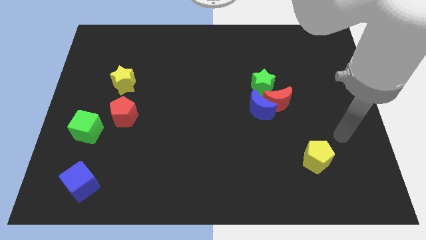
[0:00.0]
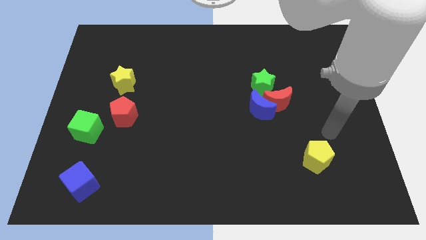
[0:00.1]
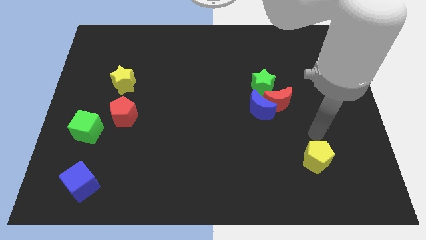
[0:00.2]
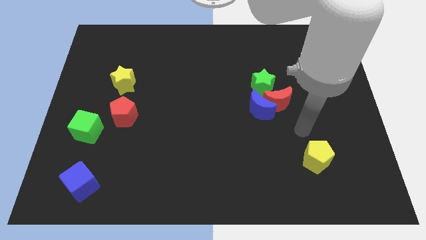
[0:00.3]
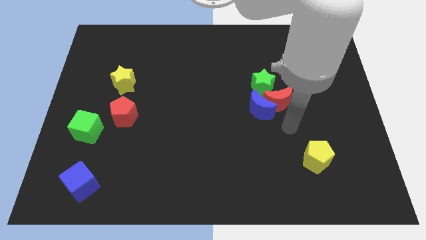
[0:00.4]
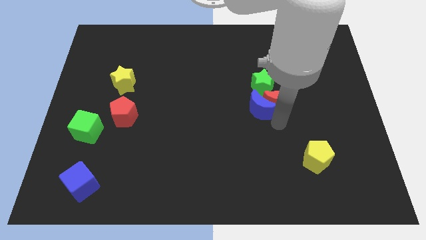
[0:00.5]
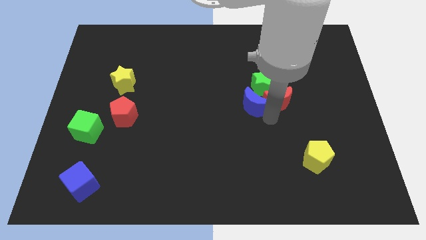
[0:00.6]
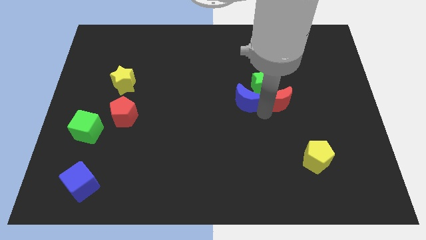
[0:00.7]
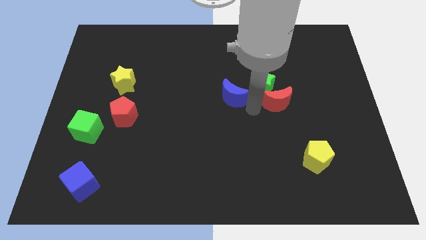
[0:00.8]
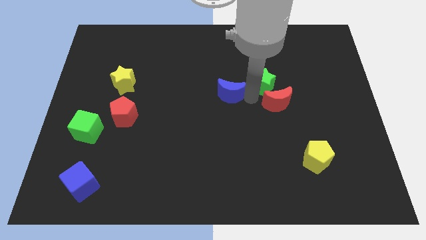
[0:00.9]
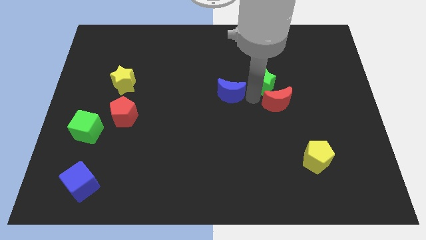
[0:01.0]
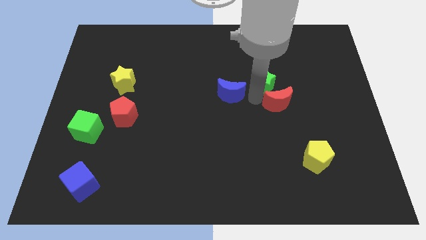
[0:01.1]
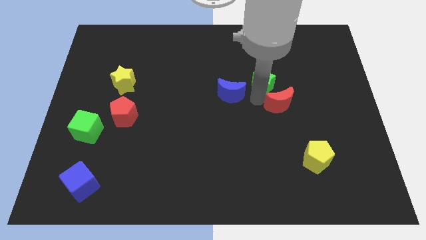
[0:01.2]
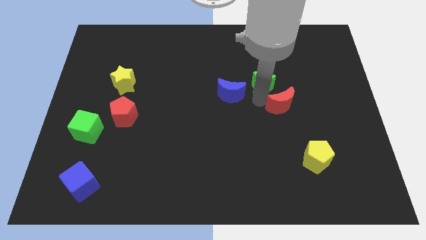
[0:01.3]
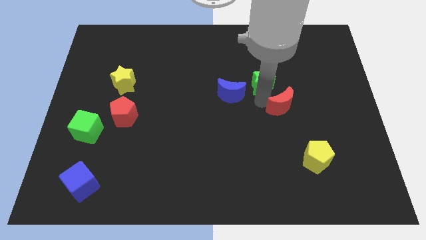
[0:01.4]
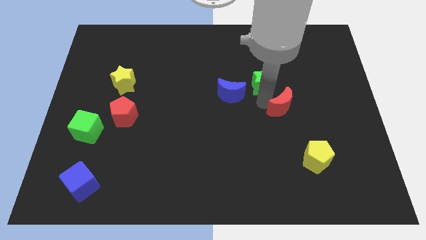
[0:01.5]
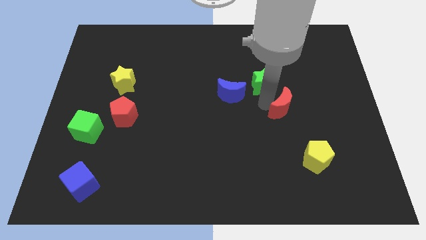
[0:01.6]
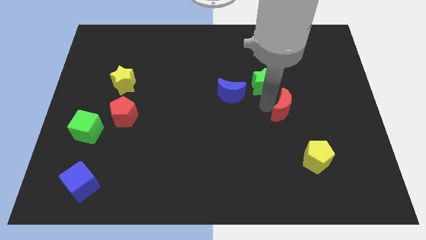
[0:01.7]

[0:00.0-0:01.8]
move the red moon away from the blue moon and green star

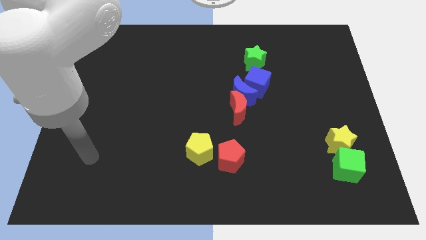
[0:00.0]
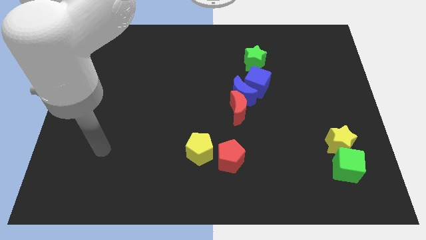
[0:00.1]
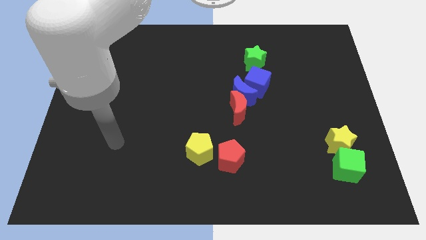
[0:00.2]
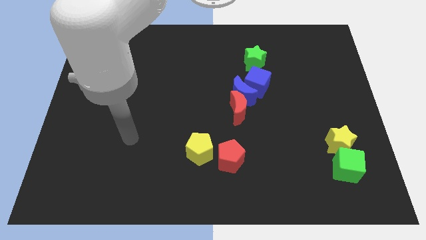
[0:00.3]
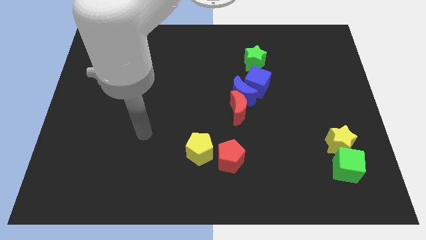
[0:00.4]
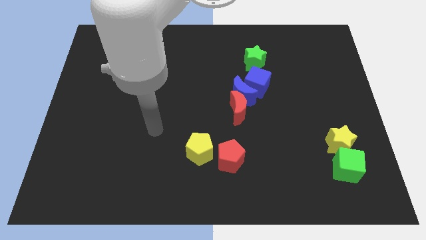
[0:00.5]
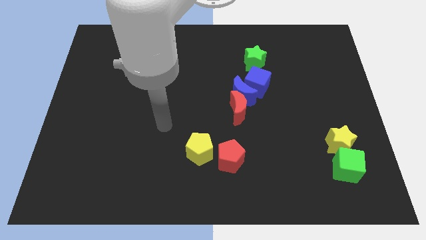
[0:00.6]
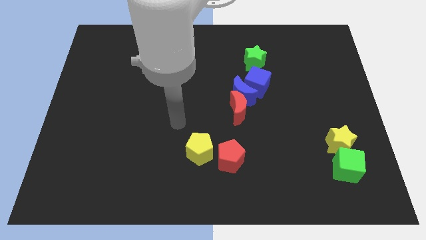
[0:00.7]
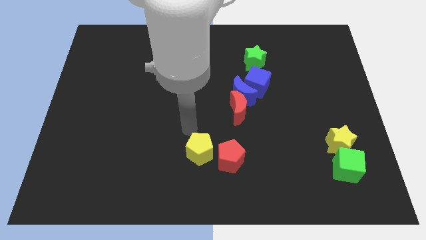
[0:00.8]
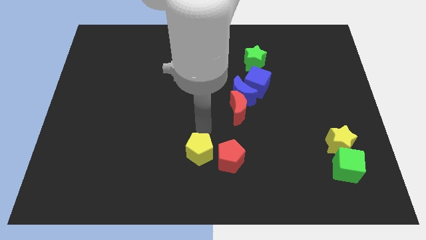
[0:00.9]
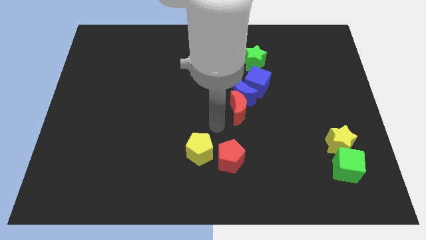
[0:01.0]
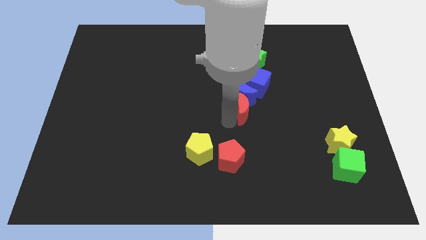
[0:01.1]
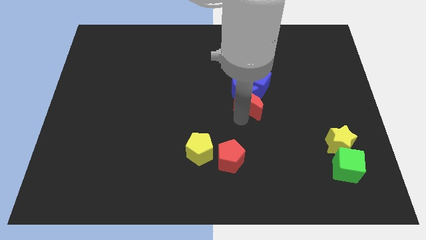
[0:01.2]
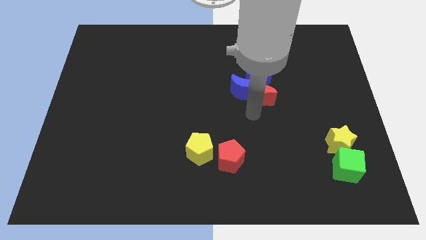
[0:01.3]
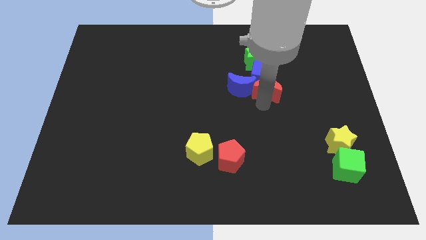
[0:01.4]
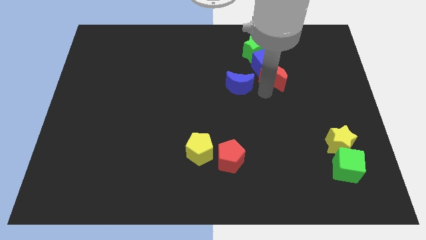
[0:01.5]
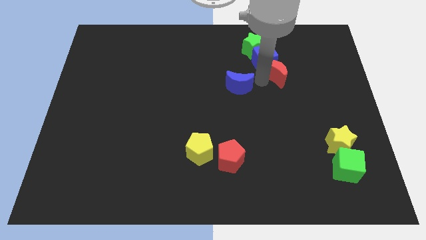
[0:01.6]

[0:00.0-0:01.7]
move the blue moon away from the red moon and blue cube

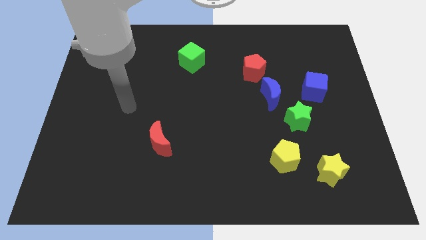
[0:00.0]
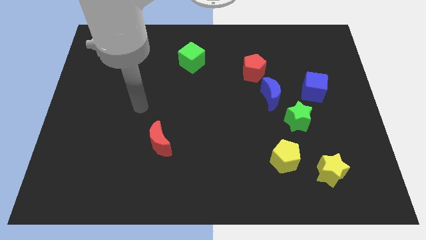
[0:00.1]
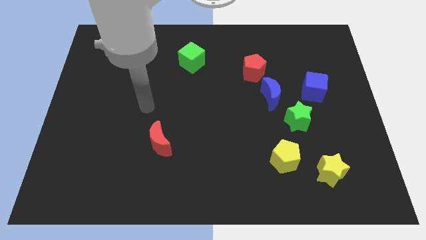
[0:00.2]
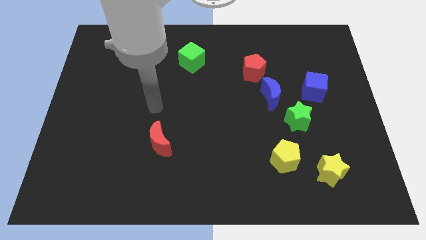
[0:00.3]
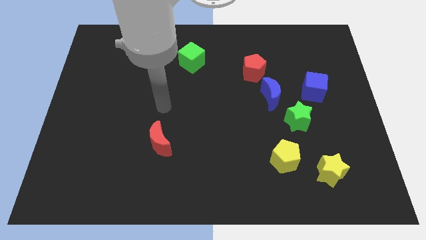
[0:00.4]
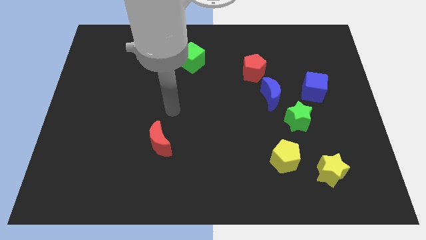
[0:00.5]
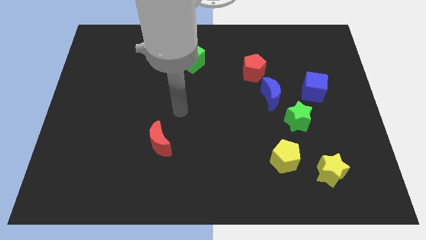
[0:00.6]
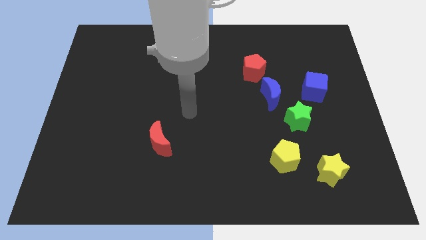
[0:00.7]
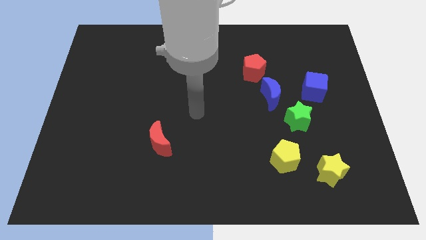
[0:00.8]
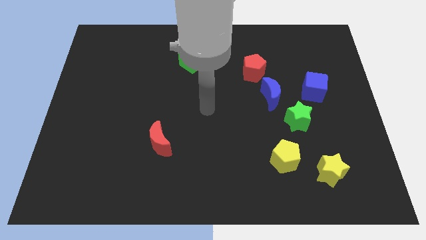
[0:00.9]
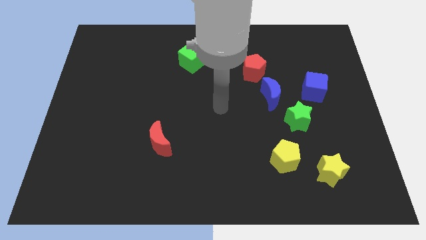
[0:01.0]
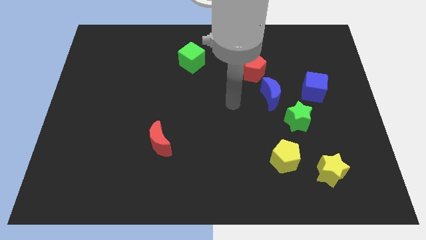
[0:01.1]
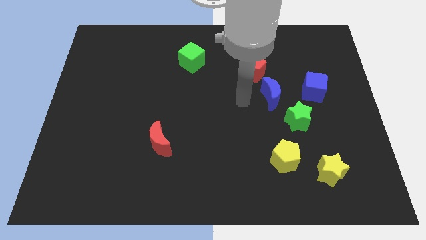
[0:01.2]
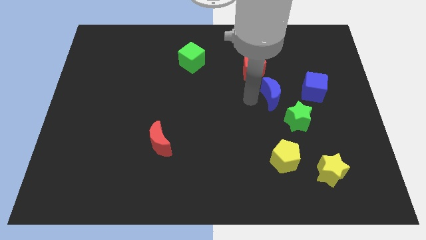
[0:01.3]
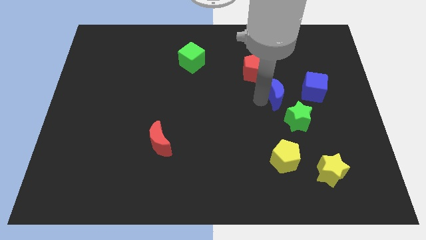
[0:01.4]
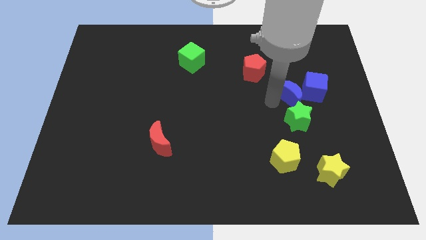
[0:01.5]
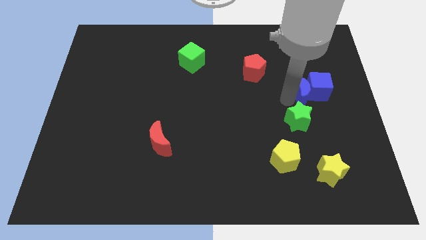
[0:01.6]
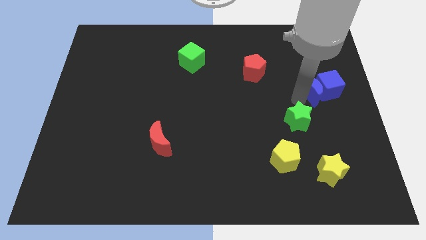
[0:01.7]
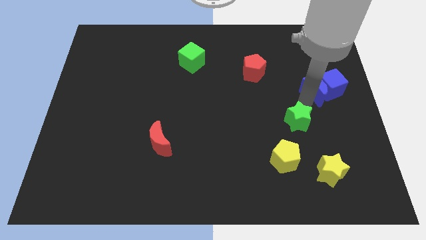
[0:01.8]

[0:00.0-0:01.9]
separate the green star from the blue moon

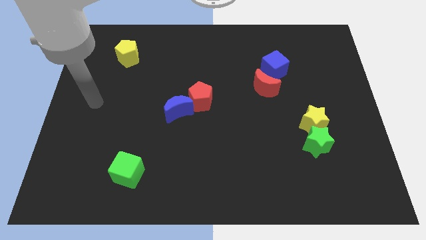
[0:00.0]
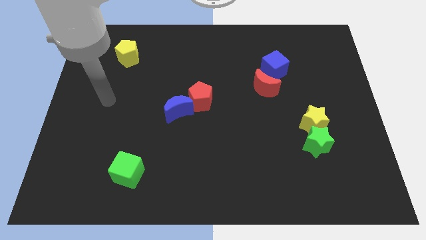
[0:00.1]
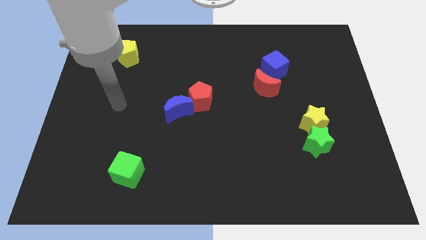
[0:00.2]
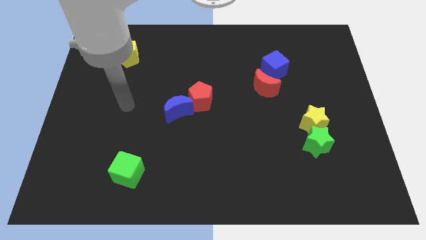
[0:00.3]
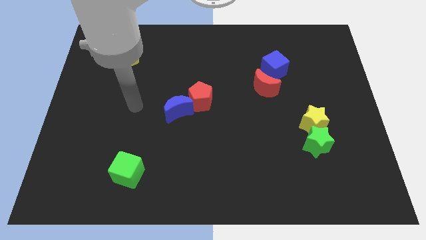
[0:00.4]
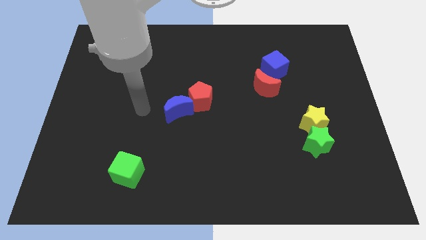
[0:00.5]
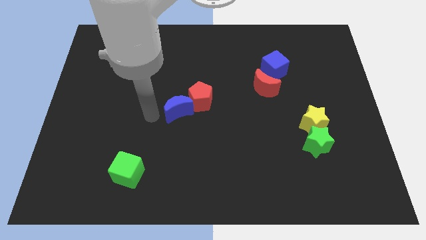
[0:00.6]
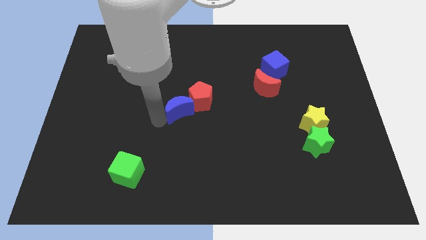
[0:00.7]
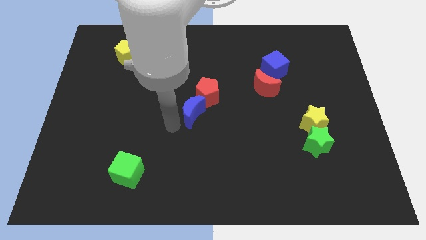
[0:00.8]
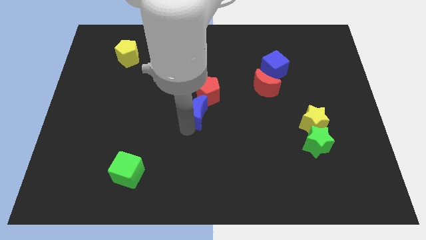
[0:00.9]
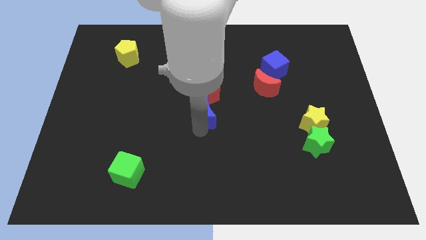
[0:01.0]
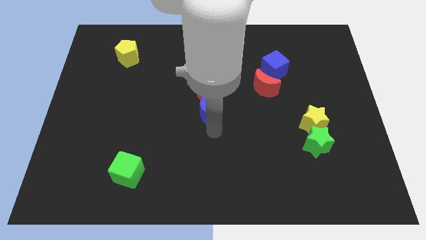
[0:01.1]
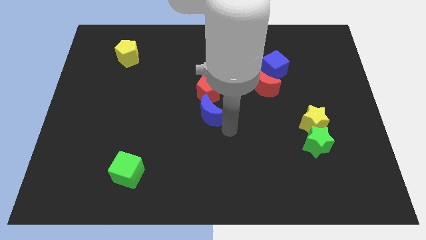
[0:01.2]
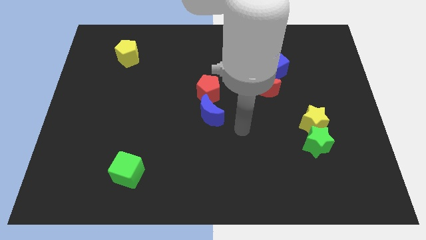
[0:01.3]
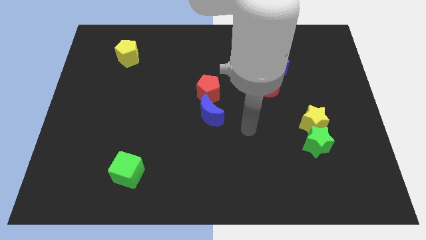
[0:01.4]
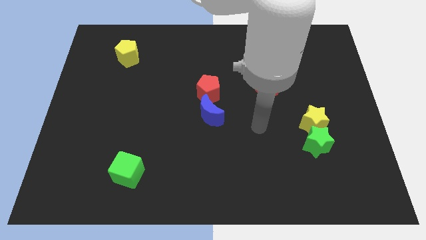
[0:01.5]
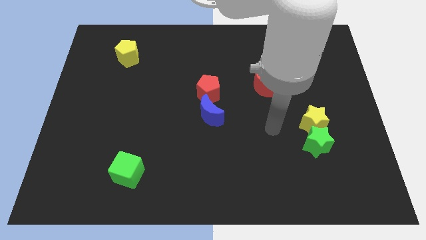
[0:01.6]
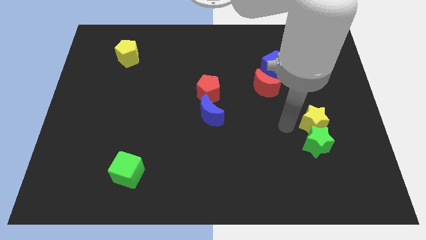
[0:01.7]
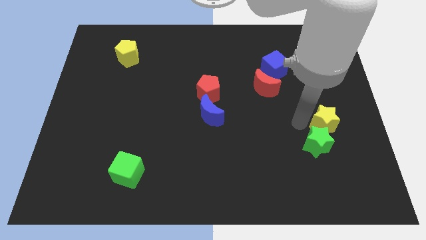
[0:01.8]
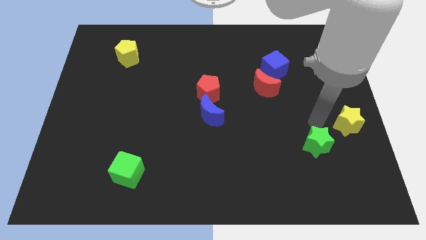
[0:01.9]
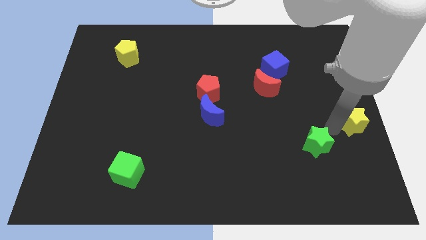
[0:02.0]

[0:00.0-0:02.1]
pull the green star apart from the yellow star

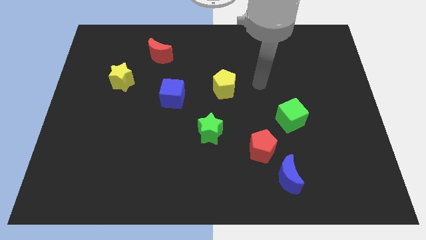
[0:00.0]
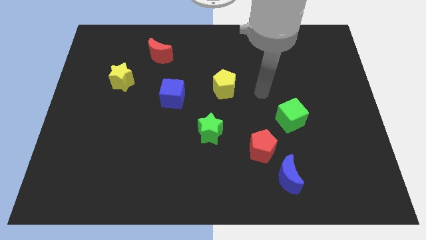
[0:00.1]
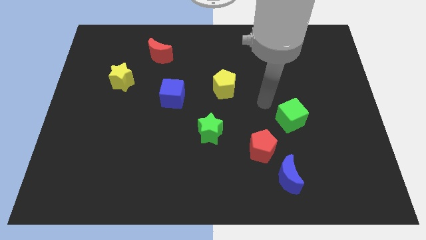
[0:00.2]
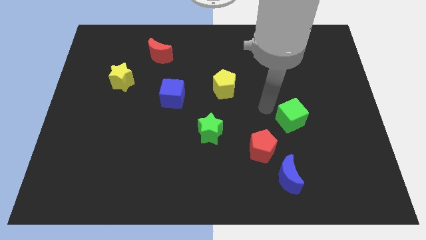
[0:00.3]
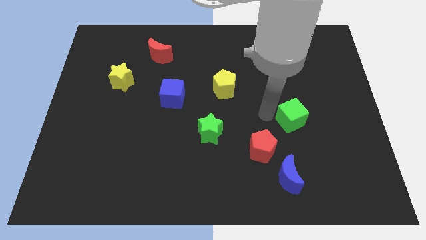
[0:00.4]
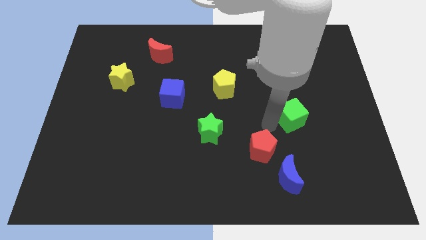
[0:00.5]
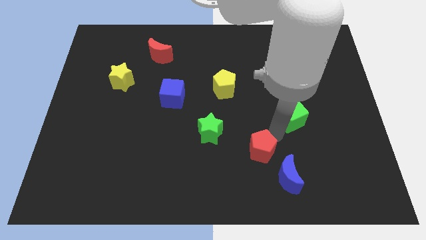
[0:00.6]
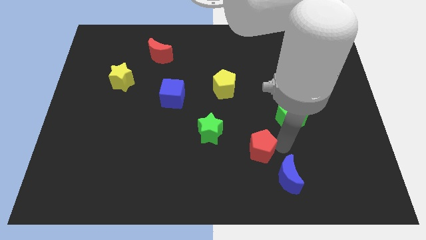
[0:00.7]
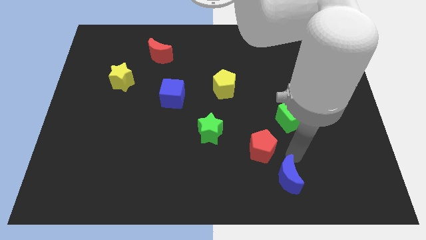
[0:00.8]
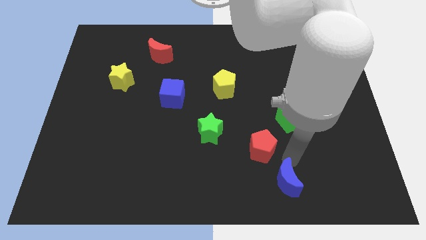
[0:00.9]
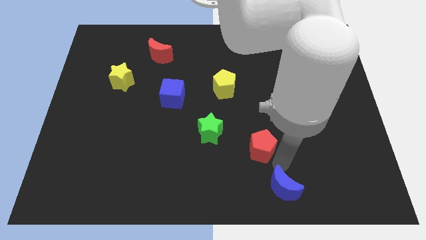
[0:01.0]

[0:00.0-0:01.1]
move the red pentagon away from the blue moon

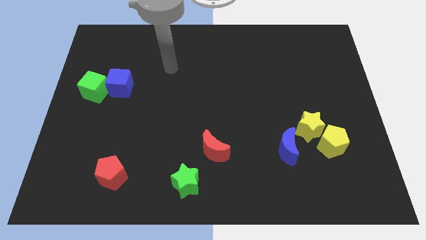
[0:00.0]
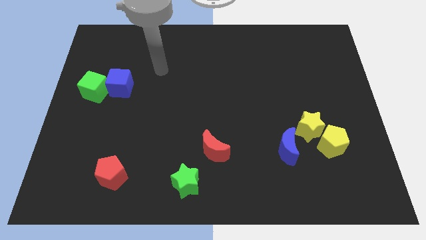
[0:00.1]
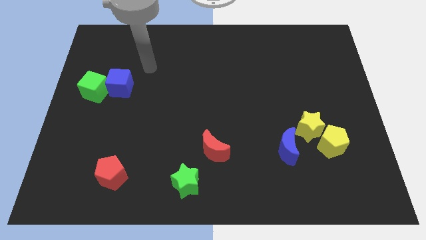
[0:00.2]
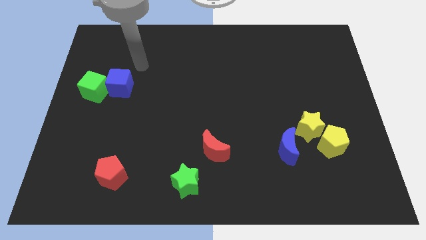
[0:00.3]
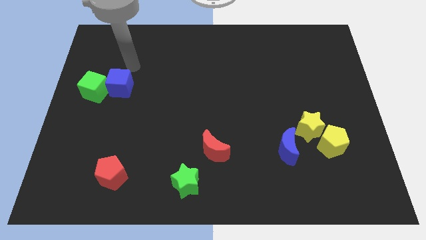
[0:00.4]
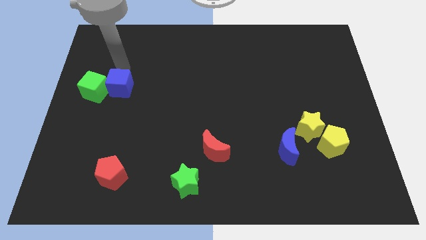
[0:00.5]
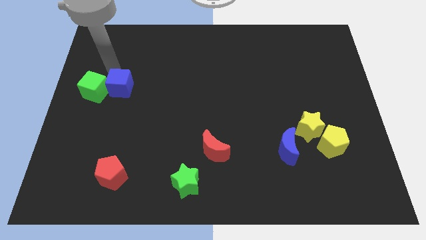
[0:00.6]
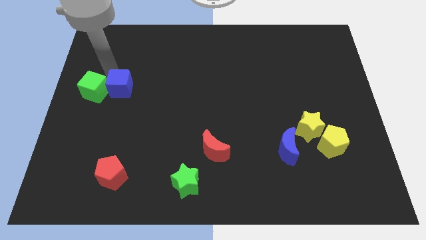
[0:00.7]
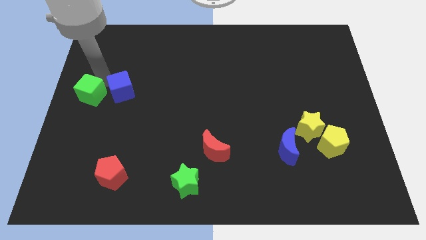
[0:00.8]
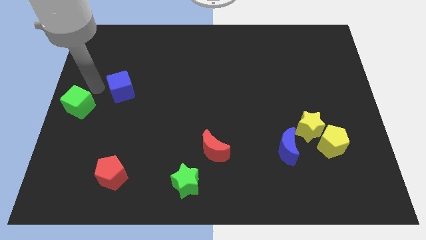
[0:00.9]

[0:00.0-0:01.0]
move the blue cube away from the green cube
